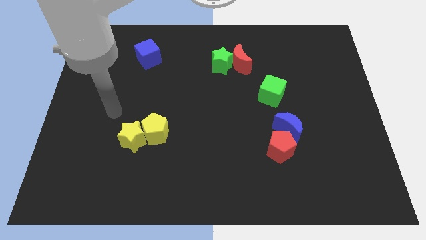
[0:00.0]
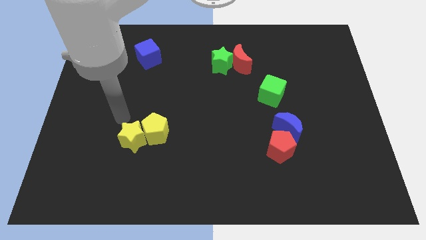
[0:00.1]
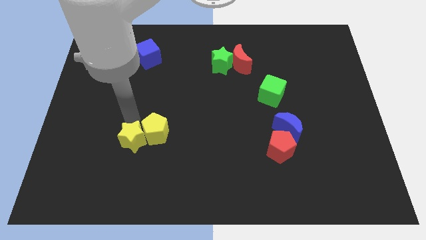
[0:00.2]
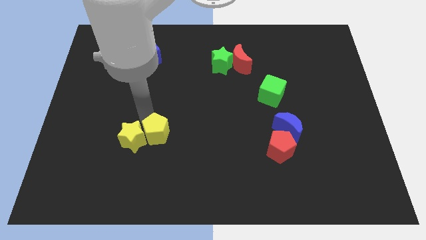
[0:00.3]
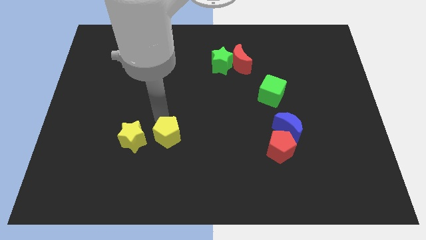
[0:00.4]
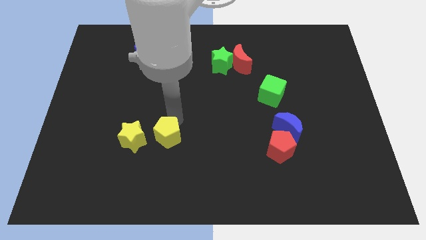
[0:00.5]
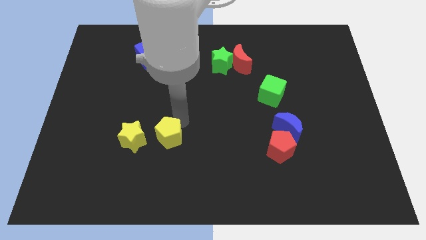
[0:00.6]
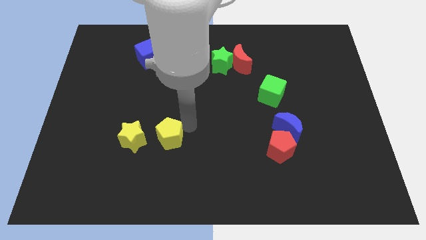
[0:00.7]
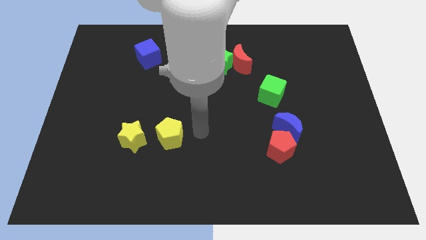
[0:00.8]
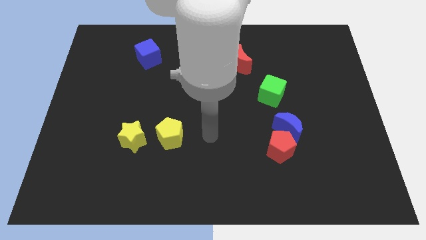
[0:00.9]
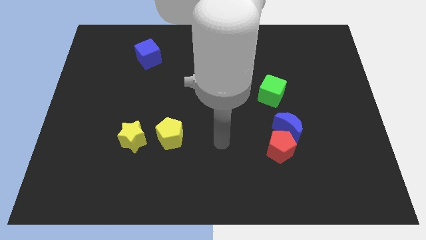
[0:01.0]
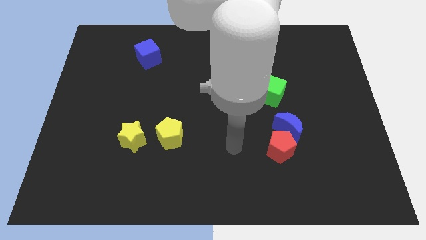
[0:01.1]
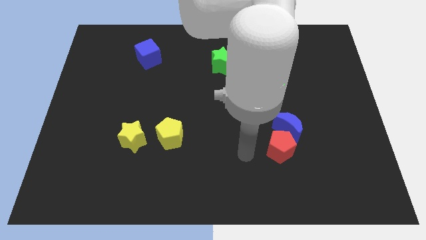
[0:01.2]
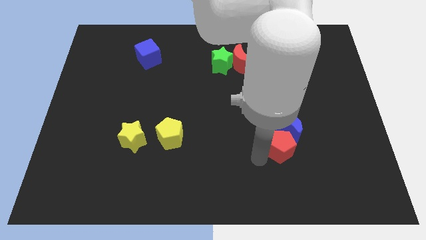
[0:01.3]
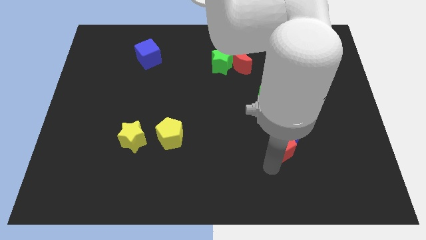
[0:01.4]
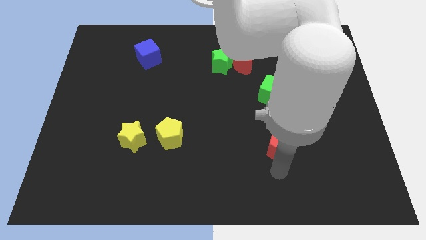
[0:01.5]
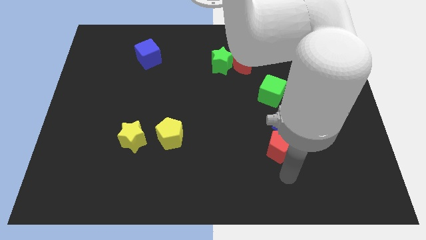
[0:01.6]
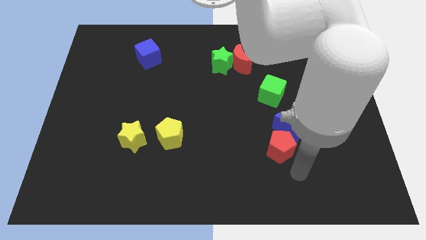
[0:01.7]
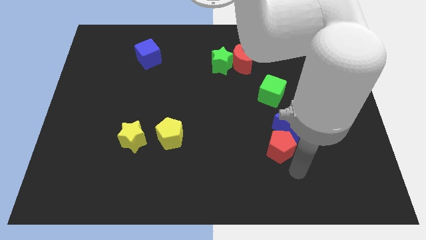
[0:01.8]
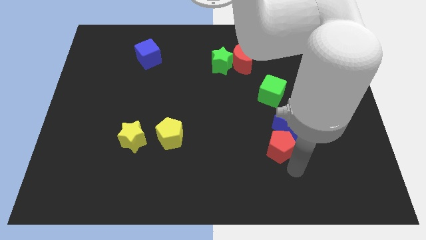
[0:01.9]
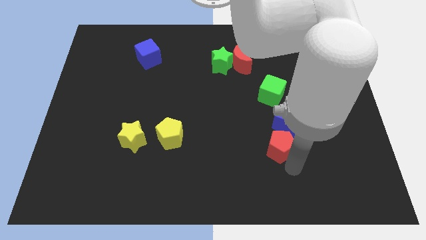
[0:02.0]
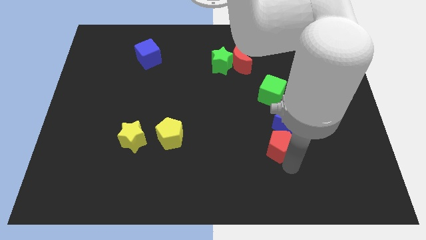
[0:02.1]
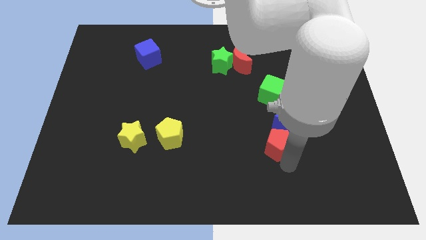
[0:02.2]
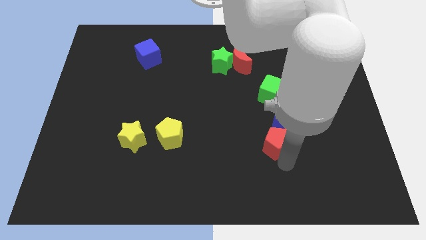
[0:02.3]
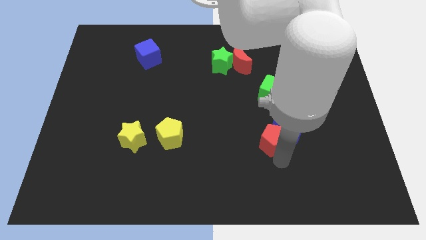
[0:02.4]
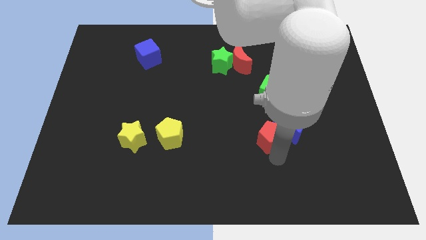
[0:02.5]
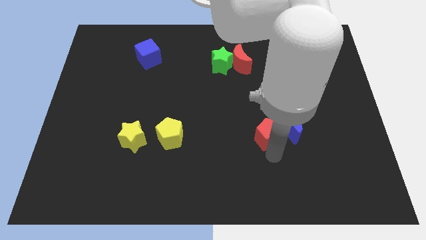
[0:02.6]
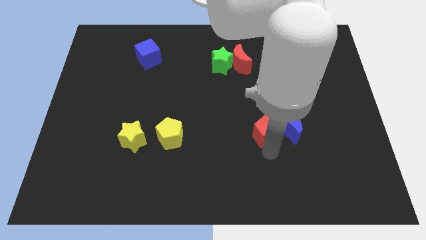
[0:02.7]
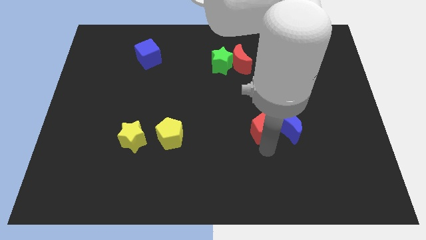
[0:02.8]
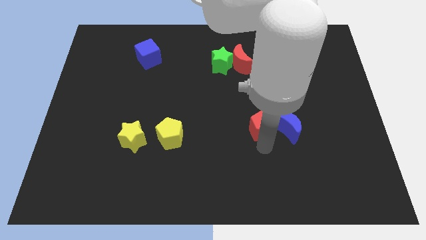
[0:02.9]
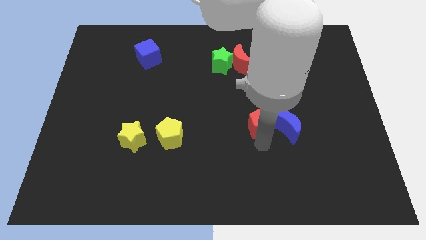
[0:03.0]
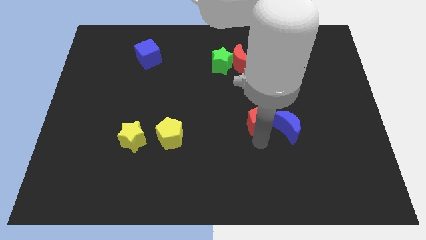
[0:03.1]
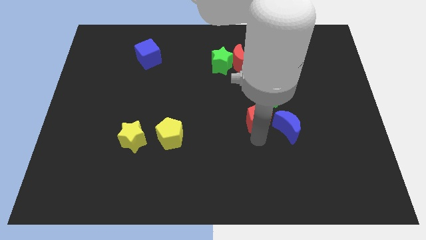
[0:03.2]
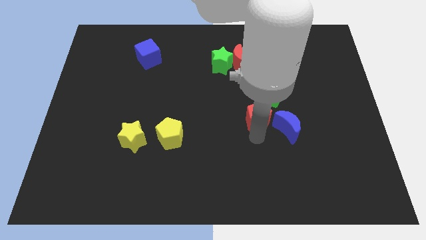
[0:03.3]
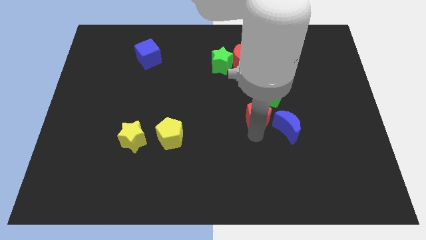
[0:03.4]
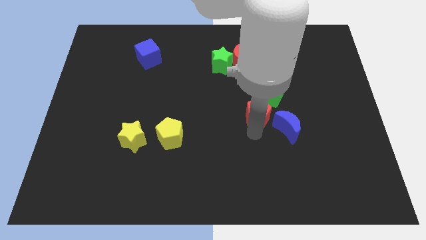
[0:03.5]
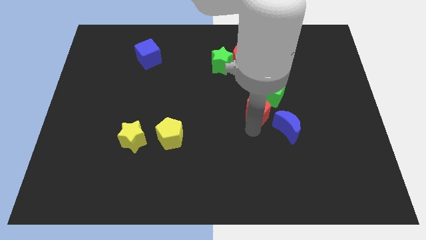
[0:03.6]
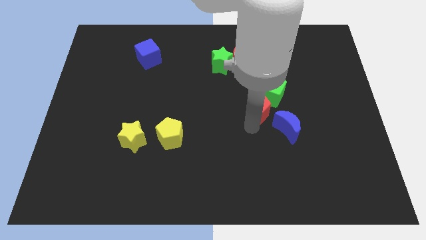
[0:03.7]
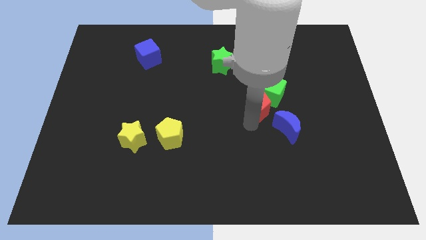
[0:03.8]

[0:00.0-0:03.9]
push the red pentagon to the green cube

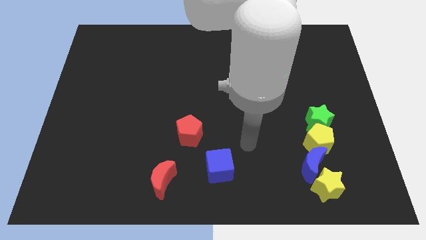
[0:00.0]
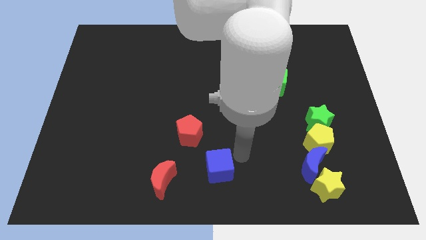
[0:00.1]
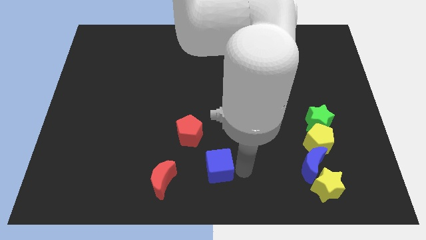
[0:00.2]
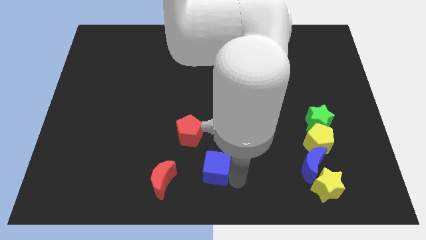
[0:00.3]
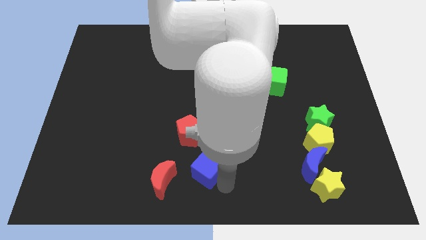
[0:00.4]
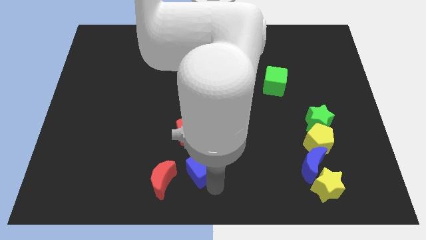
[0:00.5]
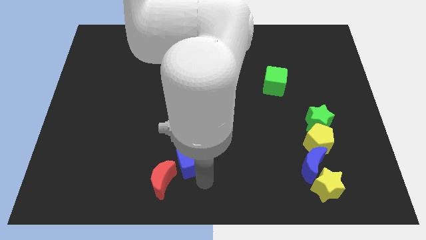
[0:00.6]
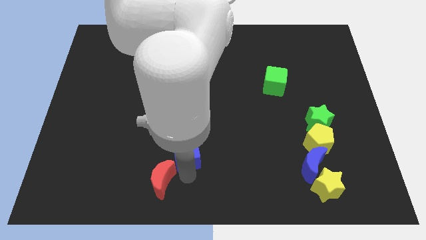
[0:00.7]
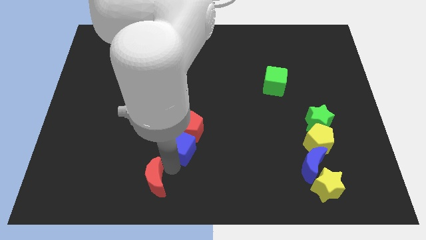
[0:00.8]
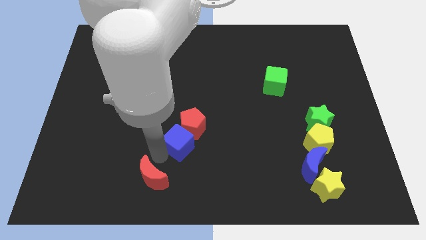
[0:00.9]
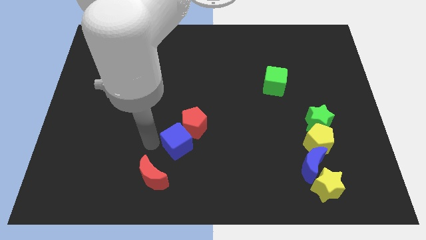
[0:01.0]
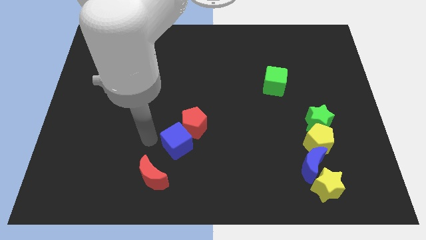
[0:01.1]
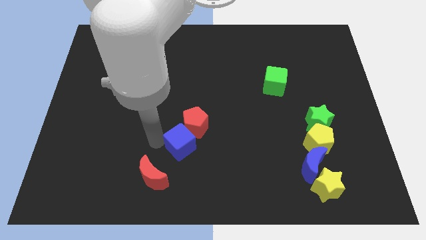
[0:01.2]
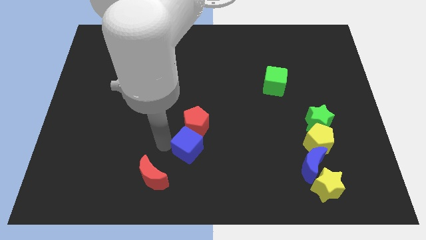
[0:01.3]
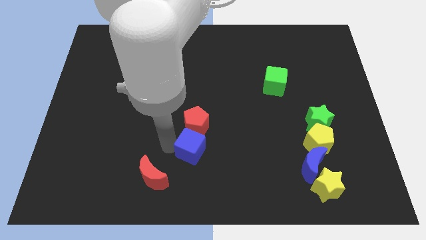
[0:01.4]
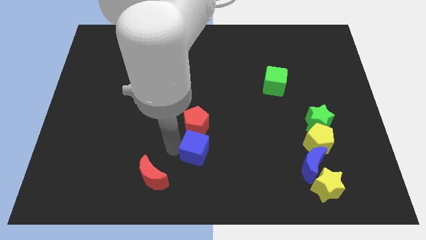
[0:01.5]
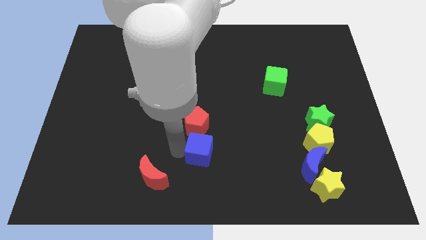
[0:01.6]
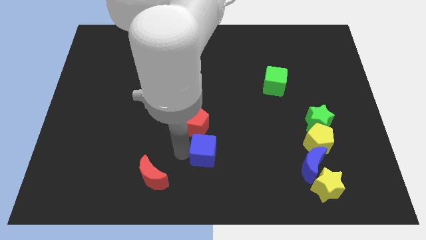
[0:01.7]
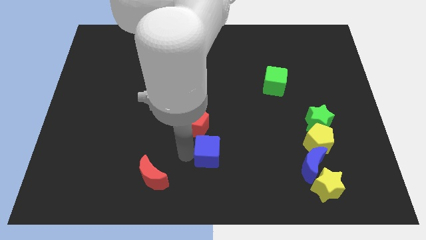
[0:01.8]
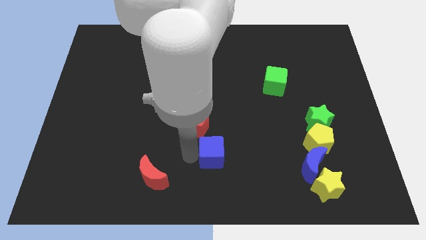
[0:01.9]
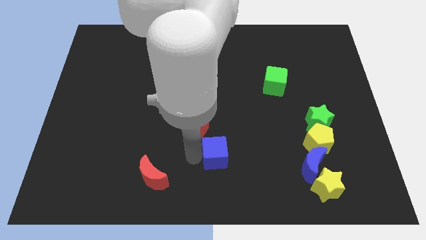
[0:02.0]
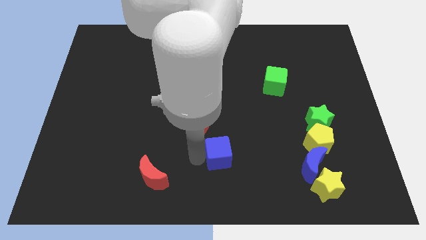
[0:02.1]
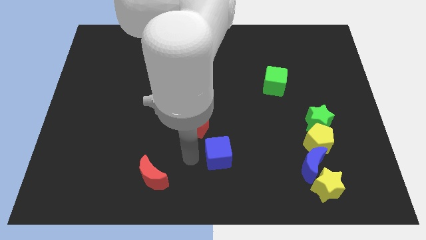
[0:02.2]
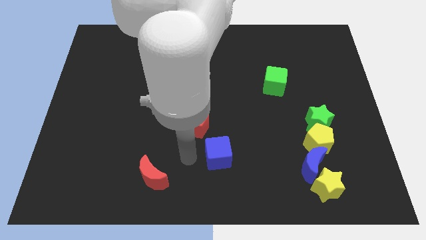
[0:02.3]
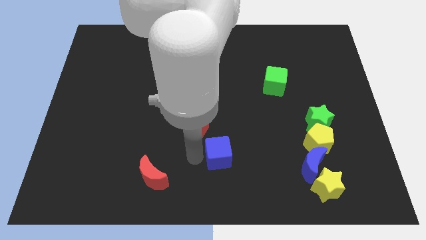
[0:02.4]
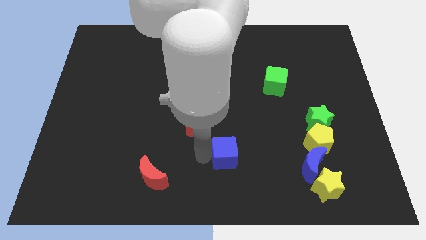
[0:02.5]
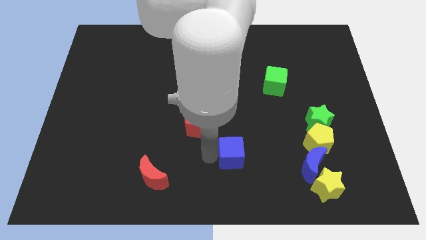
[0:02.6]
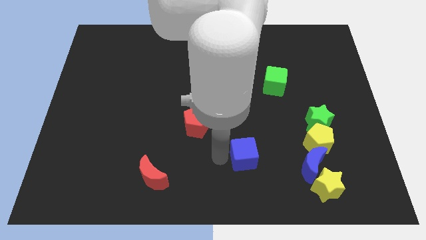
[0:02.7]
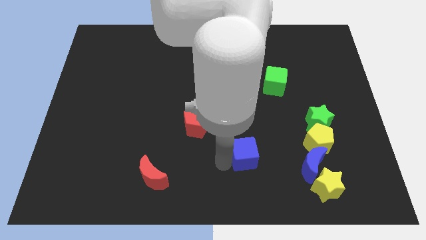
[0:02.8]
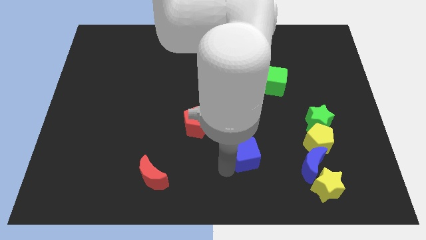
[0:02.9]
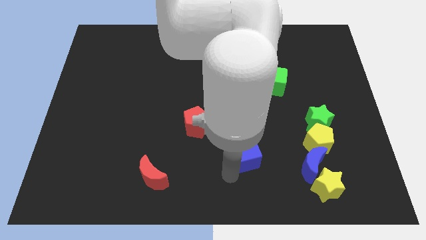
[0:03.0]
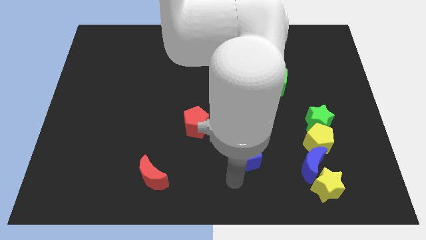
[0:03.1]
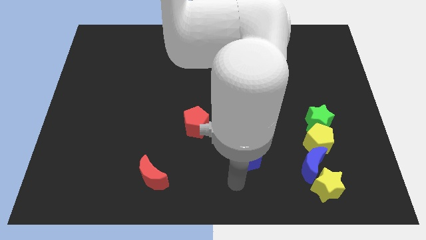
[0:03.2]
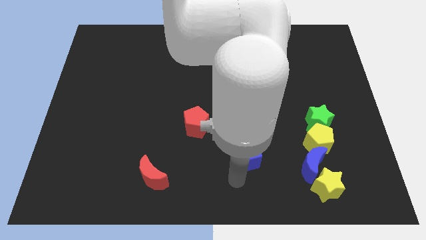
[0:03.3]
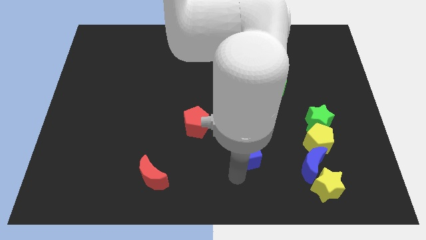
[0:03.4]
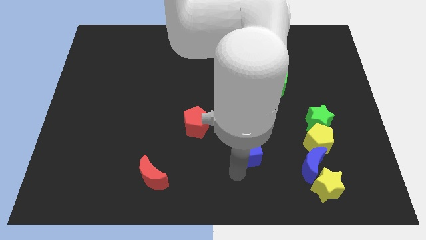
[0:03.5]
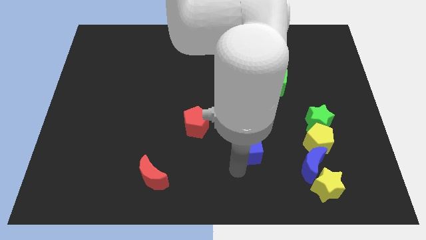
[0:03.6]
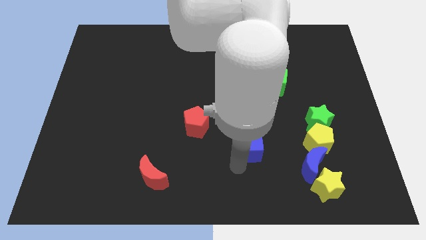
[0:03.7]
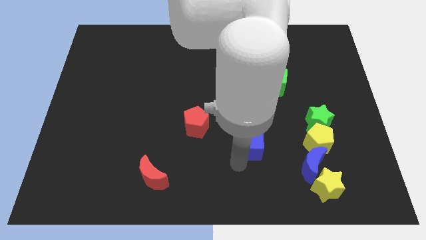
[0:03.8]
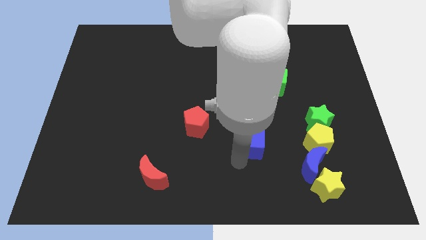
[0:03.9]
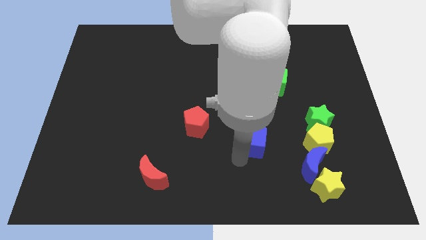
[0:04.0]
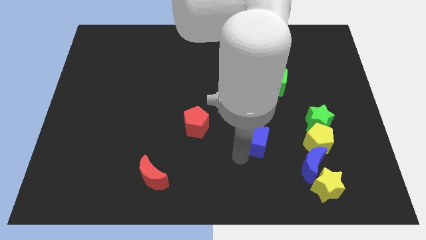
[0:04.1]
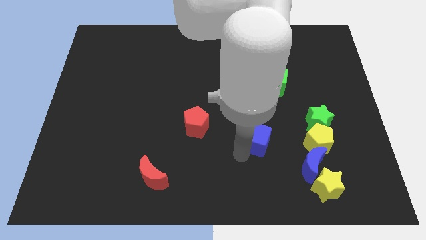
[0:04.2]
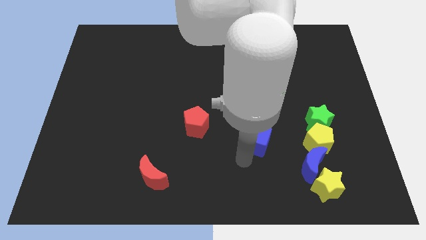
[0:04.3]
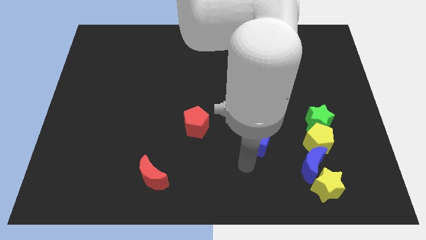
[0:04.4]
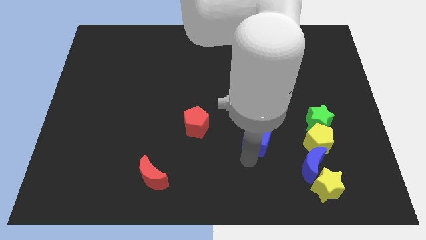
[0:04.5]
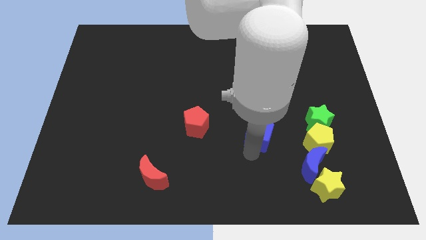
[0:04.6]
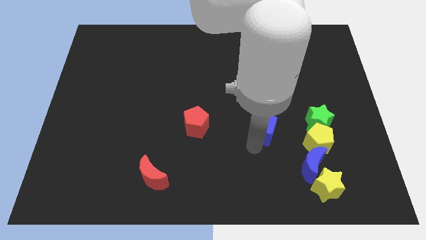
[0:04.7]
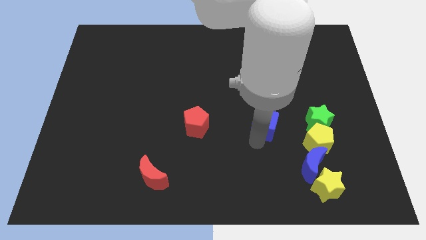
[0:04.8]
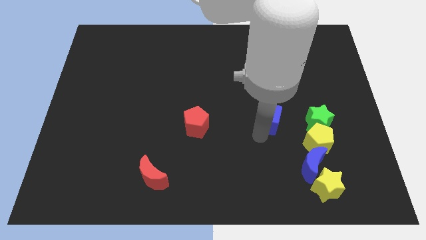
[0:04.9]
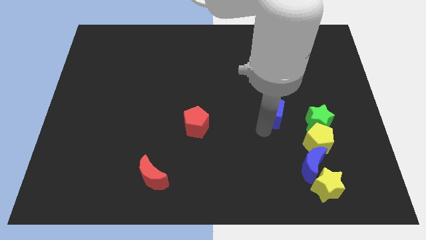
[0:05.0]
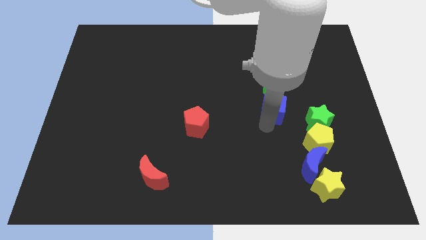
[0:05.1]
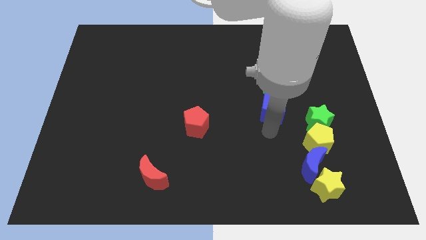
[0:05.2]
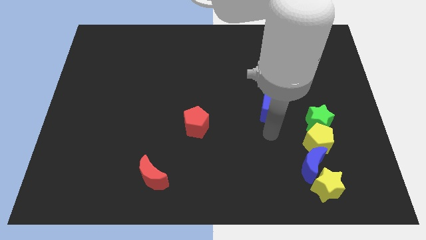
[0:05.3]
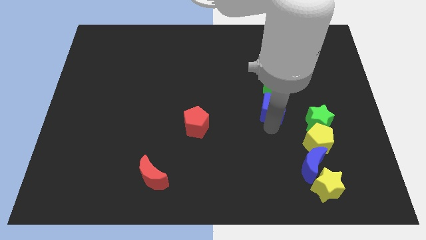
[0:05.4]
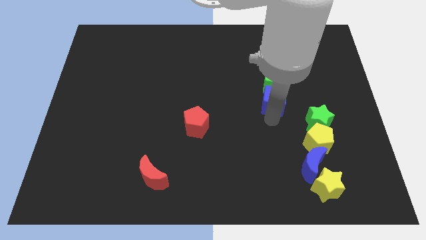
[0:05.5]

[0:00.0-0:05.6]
push the blue cube to the green cube
